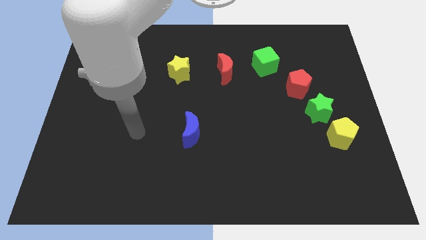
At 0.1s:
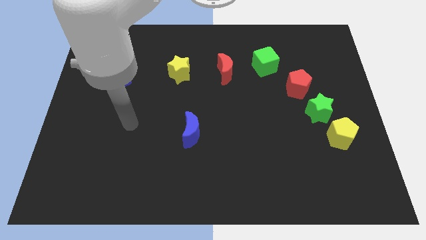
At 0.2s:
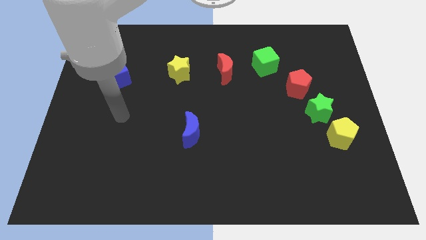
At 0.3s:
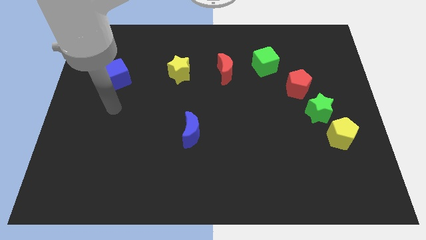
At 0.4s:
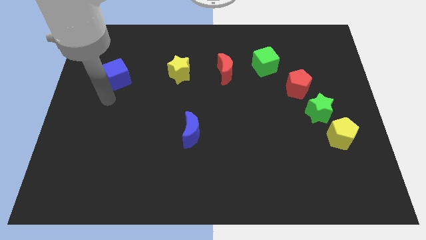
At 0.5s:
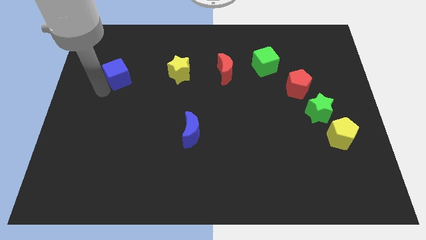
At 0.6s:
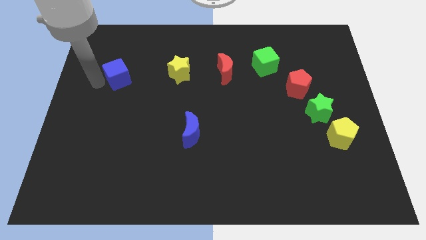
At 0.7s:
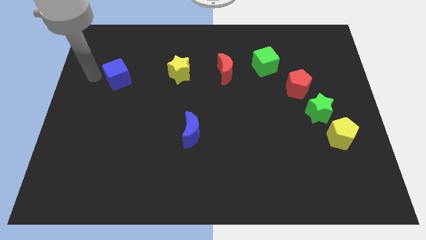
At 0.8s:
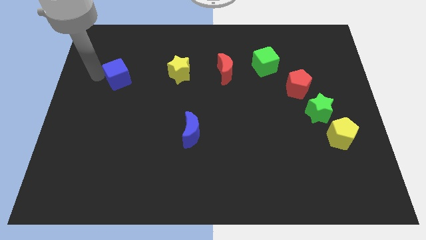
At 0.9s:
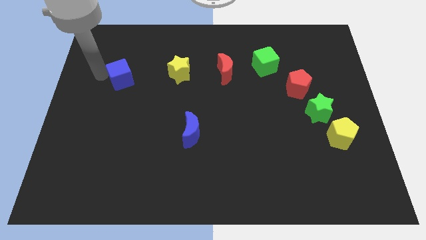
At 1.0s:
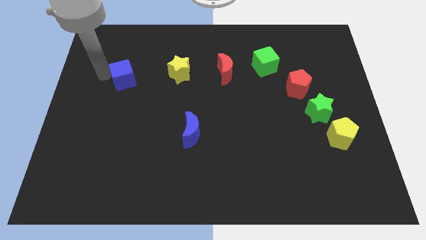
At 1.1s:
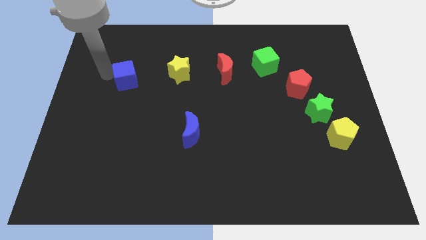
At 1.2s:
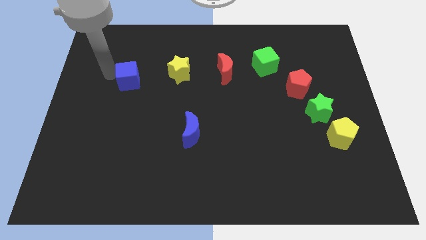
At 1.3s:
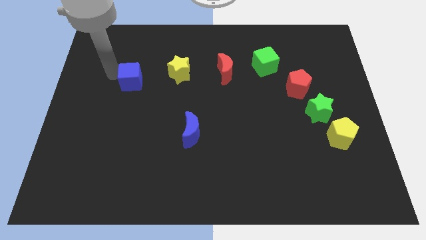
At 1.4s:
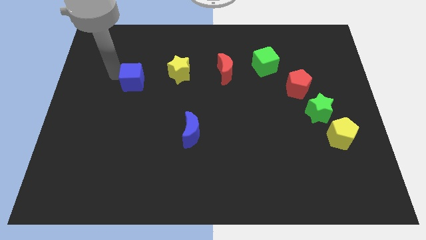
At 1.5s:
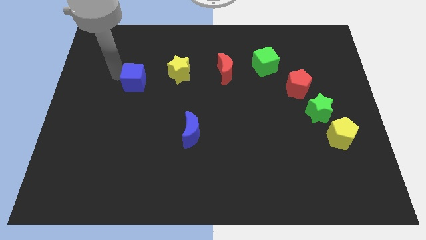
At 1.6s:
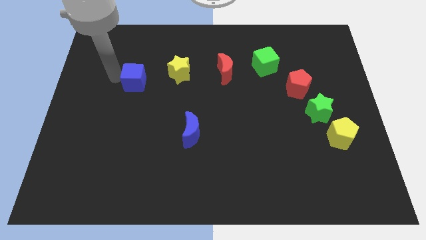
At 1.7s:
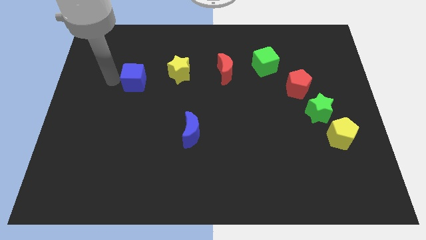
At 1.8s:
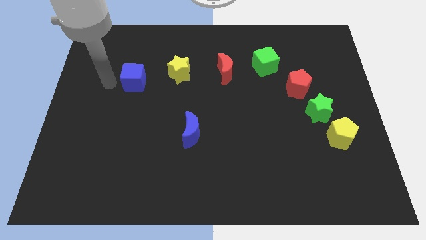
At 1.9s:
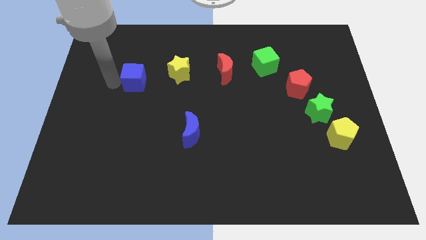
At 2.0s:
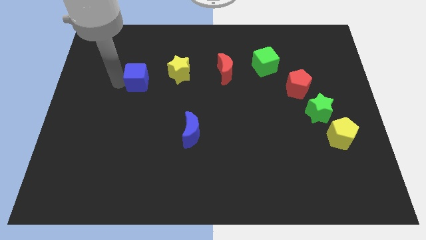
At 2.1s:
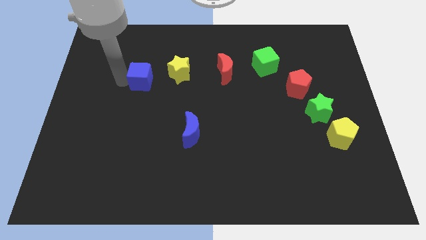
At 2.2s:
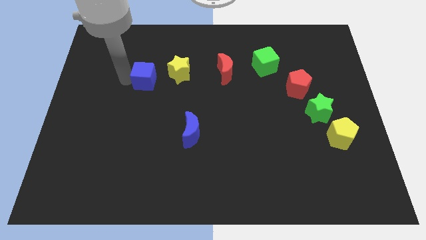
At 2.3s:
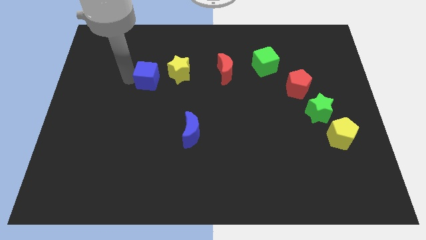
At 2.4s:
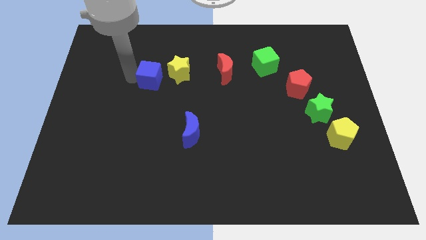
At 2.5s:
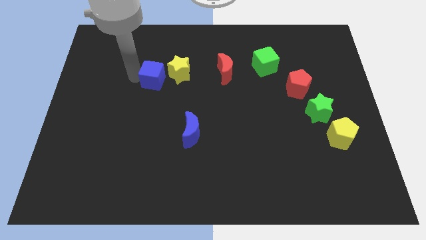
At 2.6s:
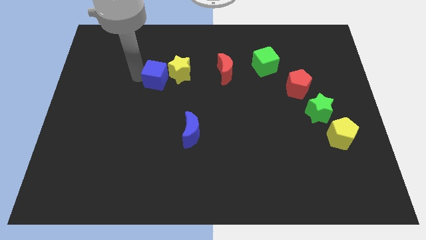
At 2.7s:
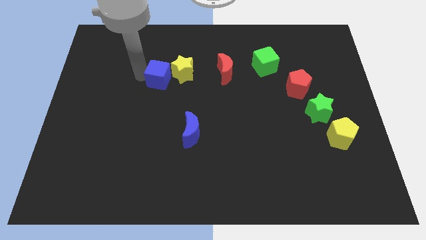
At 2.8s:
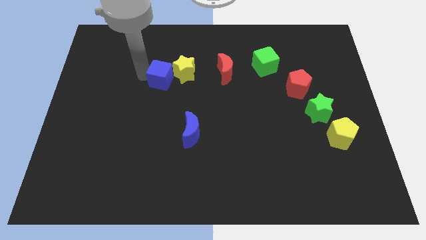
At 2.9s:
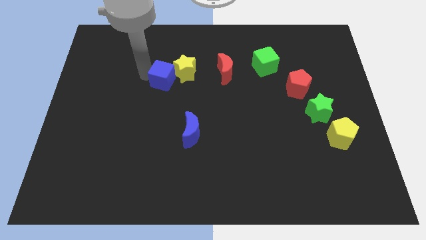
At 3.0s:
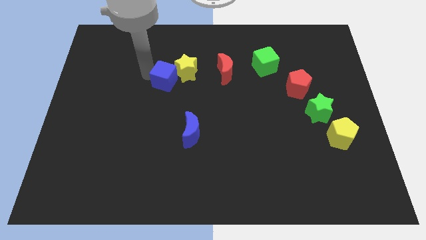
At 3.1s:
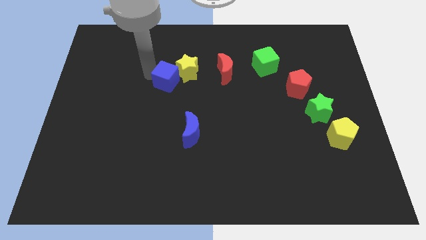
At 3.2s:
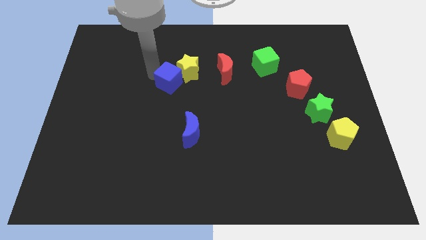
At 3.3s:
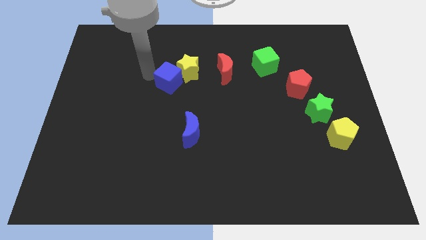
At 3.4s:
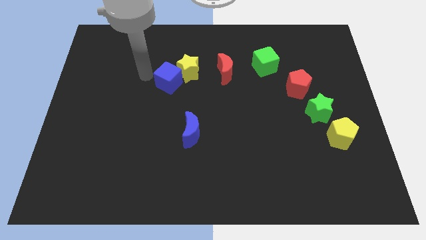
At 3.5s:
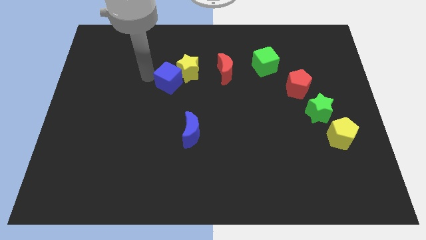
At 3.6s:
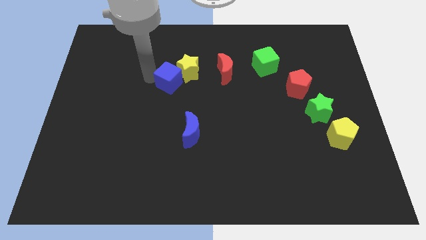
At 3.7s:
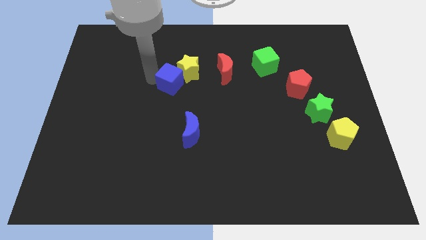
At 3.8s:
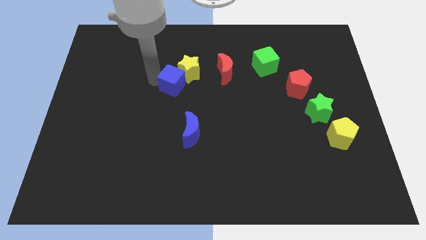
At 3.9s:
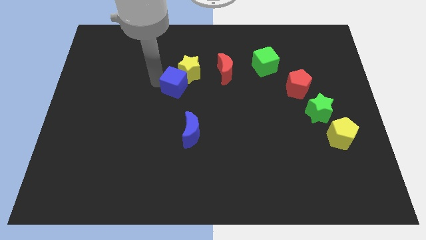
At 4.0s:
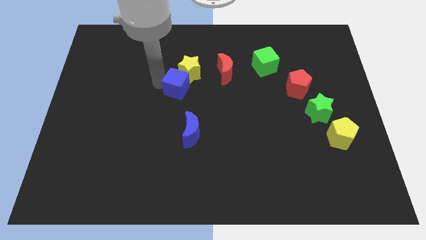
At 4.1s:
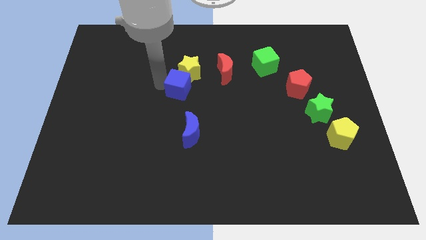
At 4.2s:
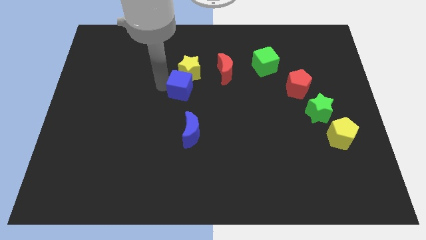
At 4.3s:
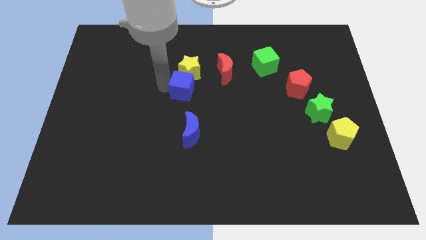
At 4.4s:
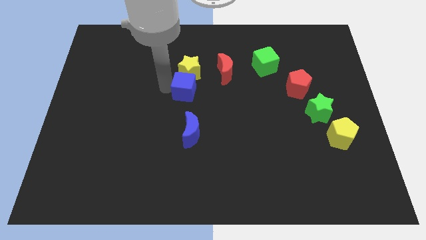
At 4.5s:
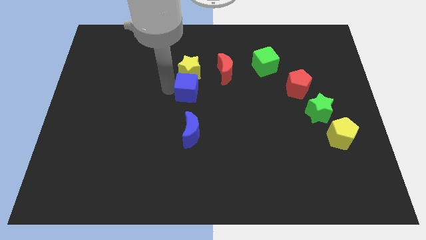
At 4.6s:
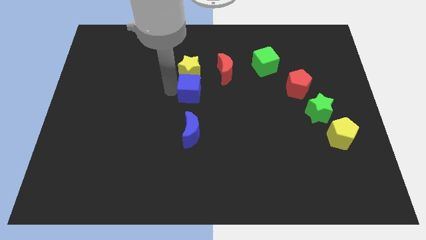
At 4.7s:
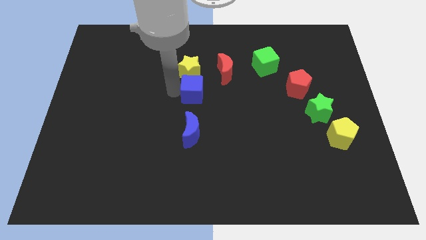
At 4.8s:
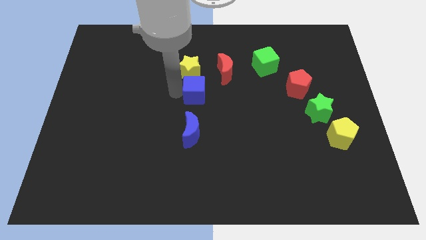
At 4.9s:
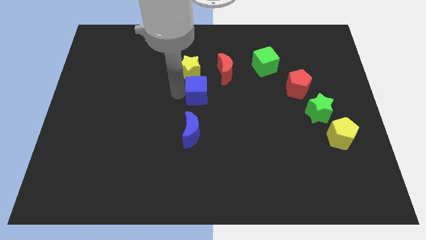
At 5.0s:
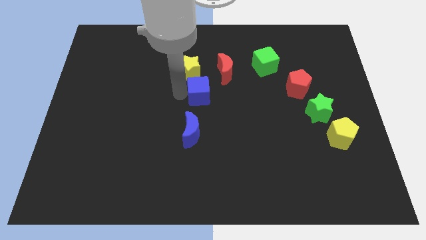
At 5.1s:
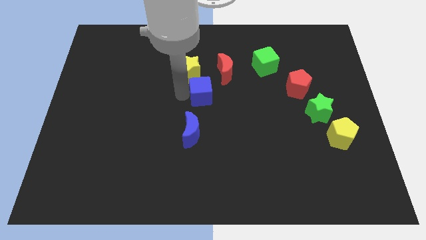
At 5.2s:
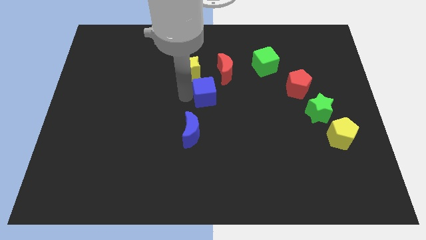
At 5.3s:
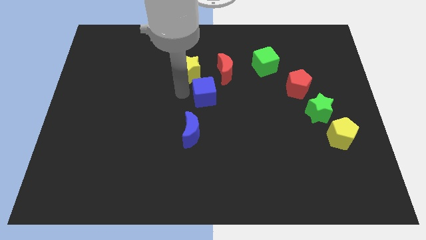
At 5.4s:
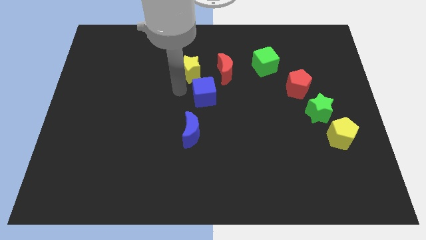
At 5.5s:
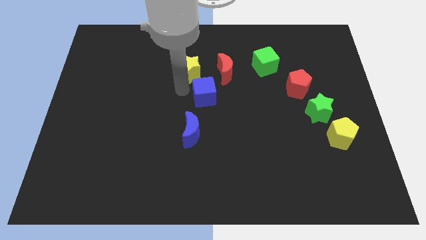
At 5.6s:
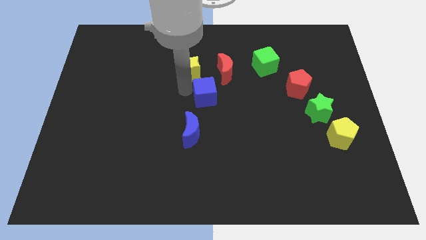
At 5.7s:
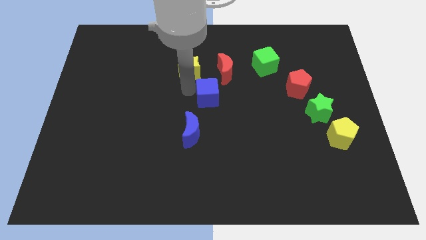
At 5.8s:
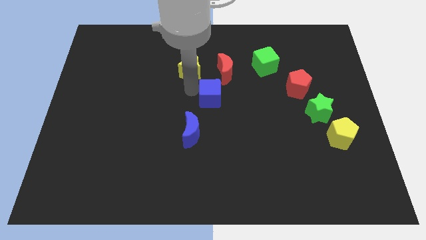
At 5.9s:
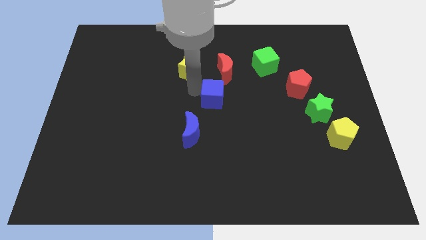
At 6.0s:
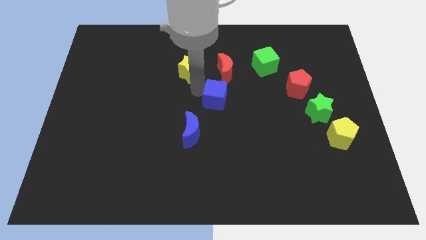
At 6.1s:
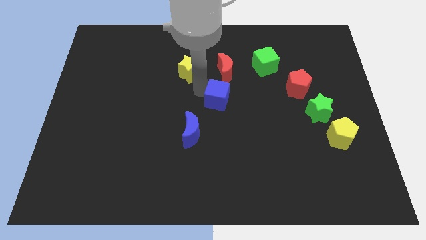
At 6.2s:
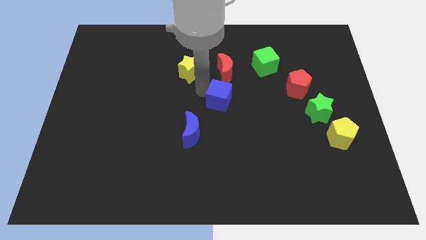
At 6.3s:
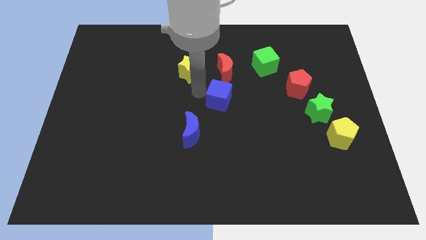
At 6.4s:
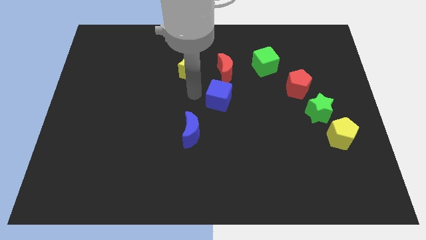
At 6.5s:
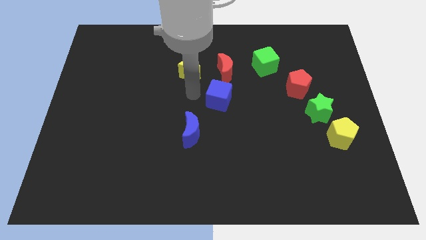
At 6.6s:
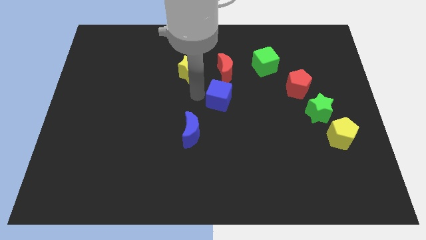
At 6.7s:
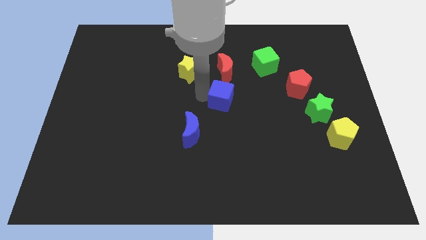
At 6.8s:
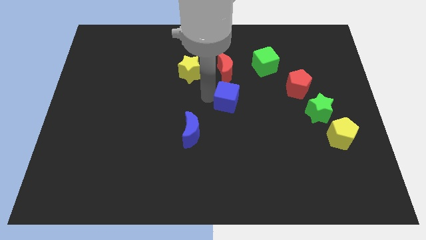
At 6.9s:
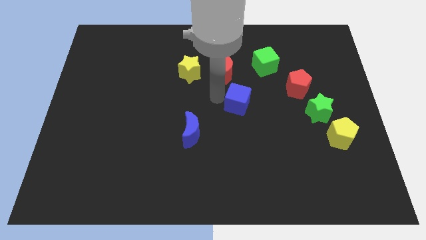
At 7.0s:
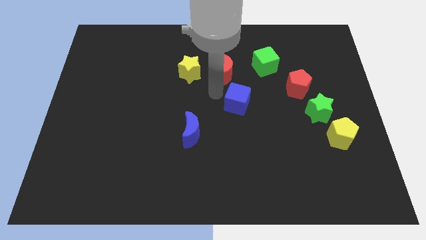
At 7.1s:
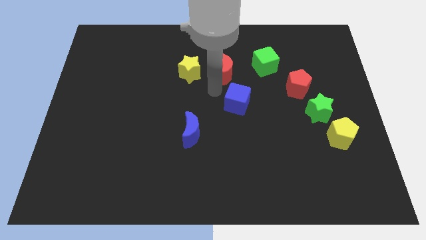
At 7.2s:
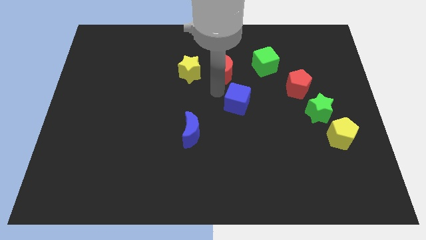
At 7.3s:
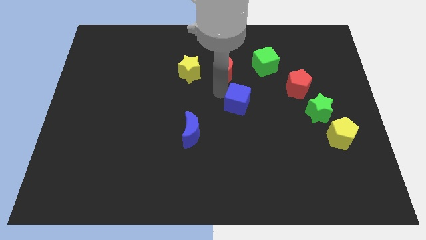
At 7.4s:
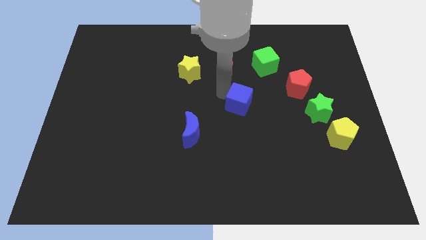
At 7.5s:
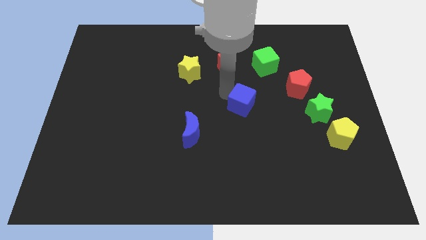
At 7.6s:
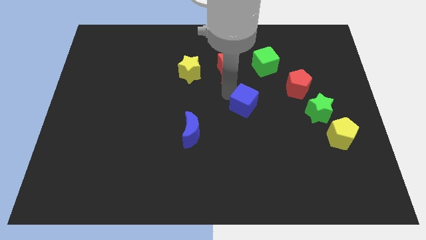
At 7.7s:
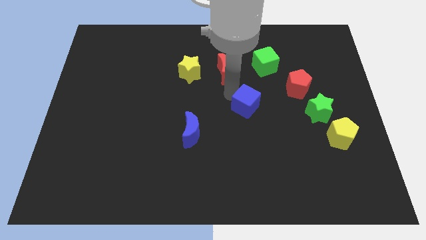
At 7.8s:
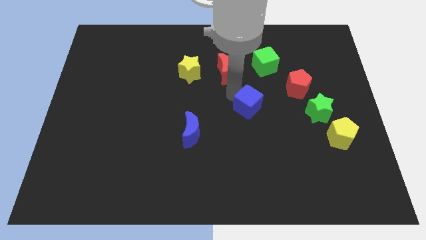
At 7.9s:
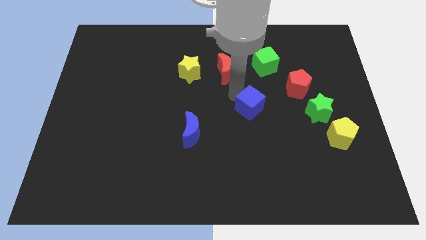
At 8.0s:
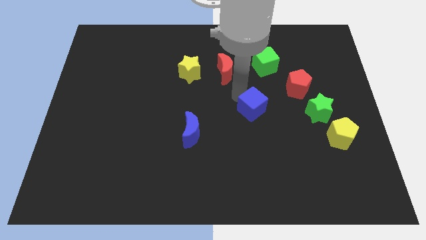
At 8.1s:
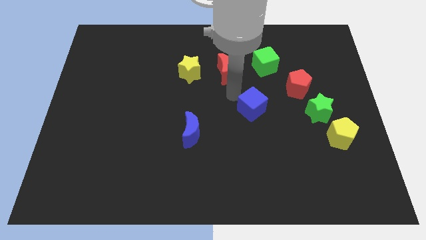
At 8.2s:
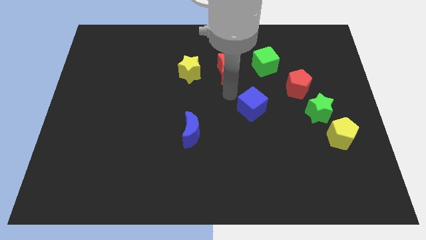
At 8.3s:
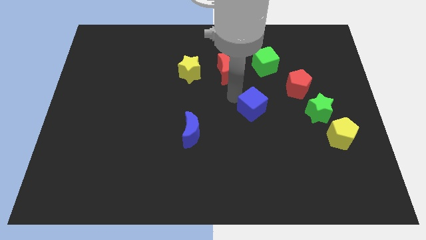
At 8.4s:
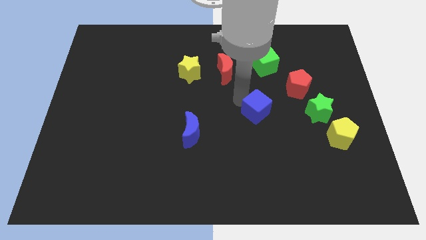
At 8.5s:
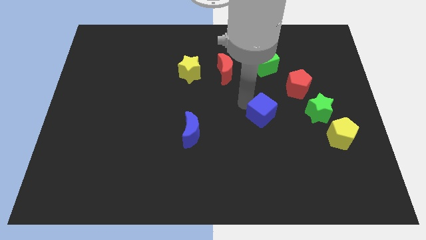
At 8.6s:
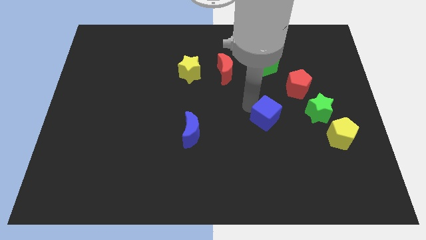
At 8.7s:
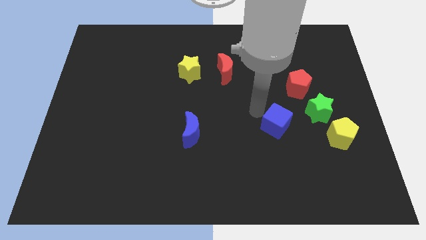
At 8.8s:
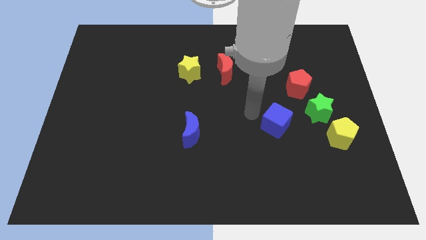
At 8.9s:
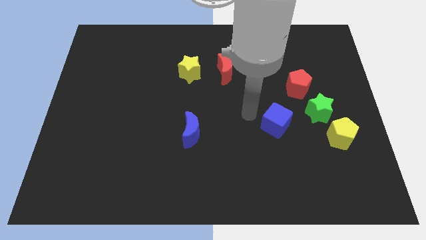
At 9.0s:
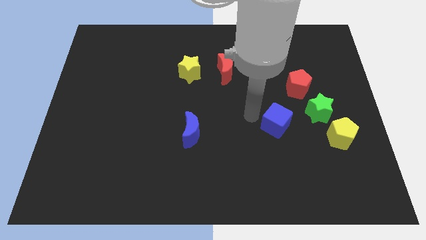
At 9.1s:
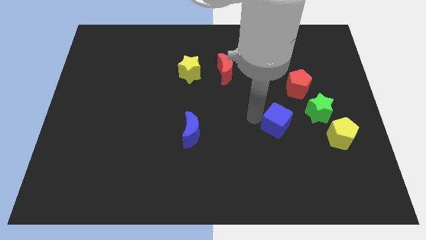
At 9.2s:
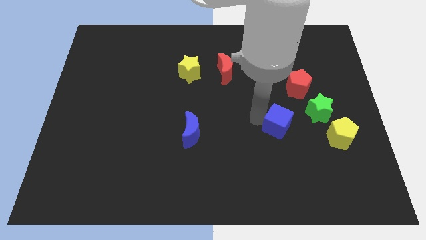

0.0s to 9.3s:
put the blue cube diagonally down and to the left of the green star
